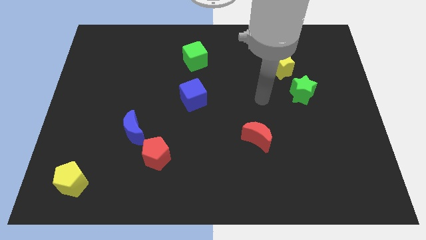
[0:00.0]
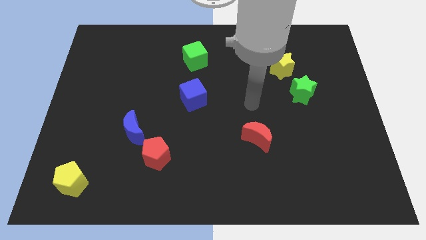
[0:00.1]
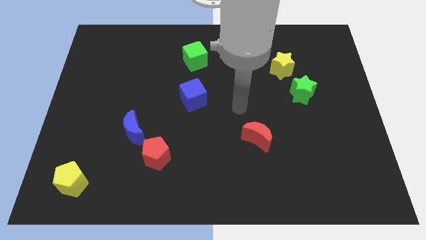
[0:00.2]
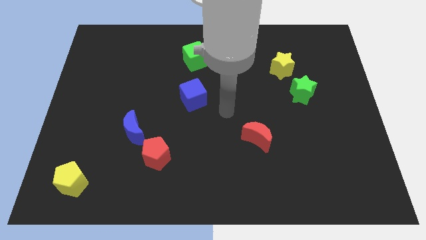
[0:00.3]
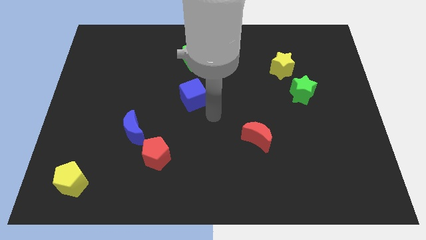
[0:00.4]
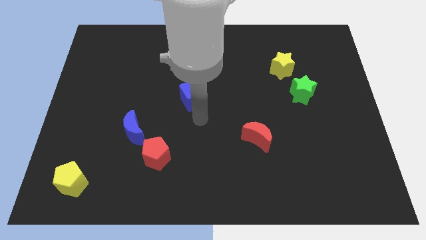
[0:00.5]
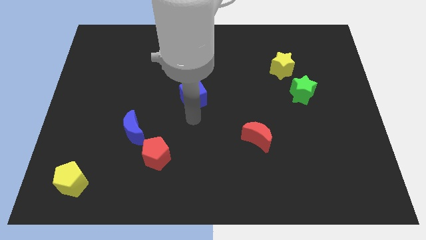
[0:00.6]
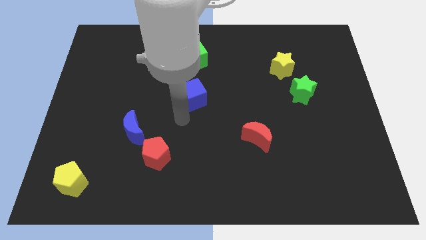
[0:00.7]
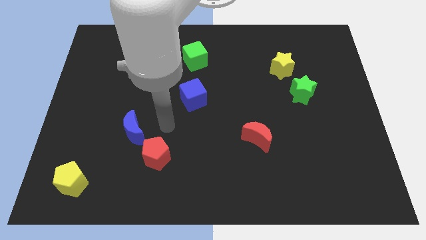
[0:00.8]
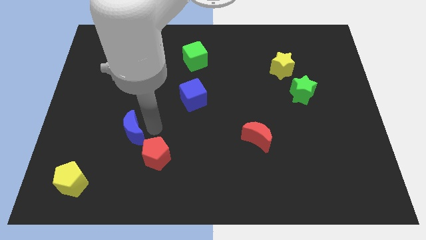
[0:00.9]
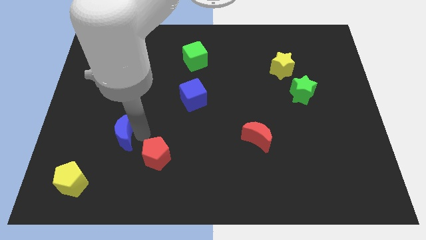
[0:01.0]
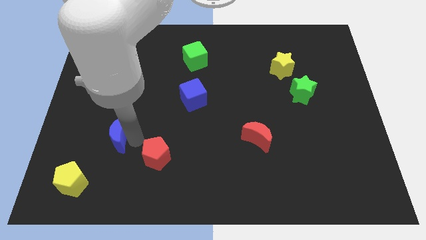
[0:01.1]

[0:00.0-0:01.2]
pull the red pentagon apart from the blue moon

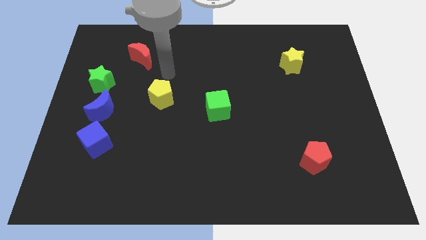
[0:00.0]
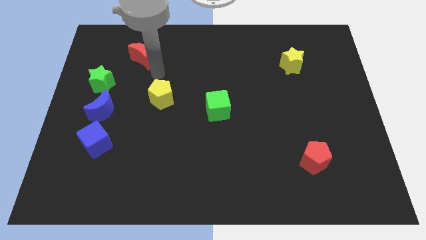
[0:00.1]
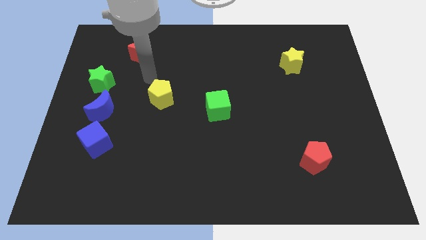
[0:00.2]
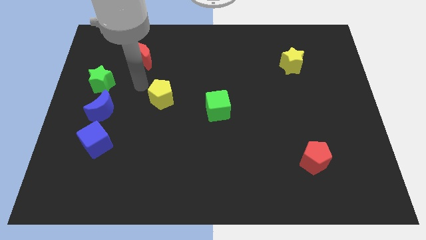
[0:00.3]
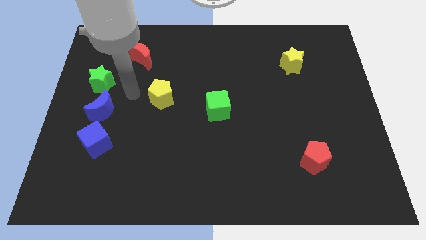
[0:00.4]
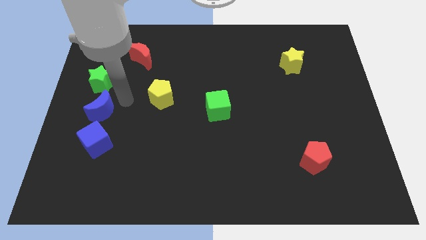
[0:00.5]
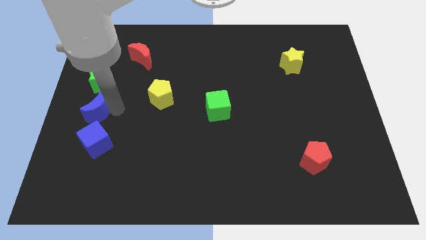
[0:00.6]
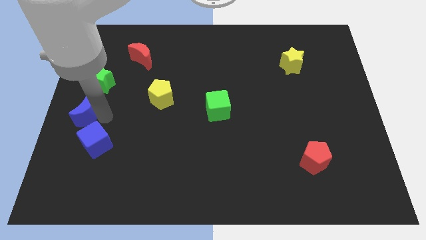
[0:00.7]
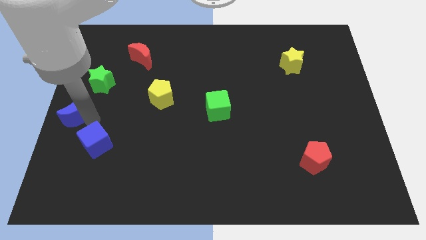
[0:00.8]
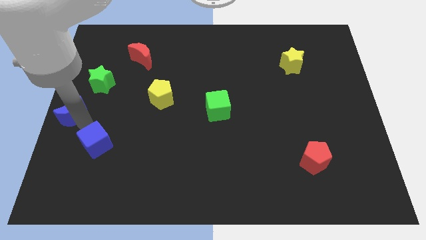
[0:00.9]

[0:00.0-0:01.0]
separate the blue cube from the blue moon

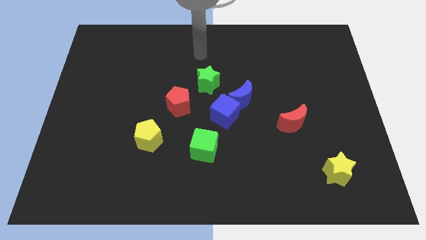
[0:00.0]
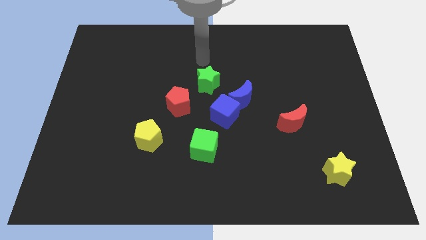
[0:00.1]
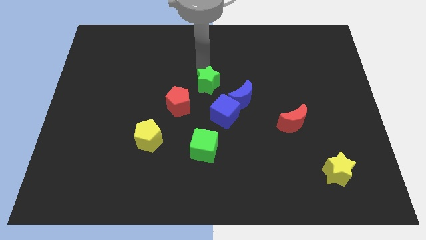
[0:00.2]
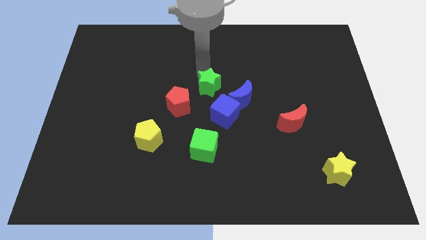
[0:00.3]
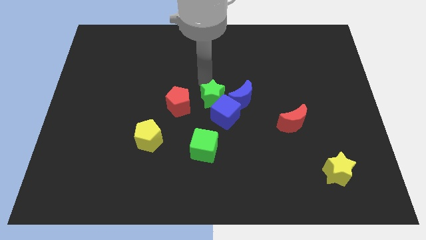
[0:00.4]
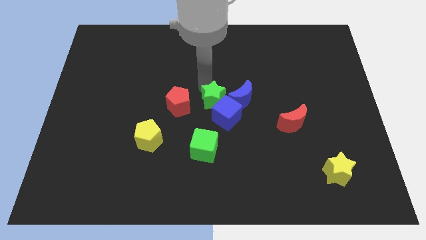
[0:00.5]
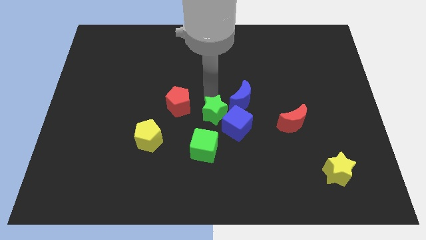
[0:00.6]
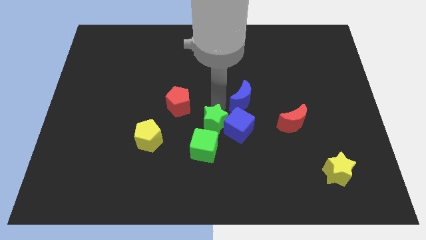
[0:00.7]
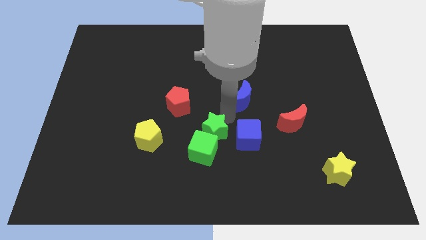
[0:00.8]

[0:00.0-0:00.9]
move the blue moon away from the blue cube and green star

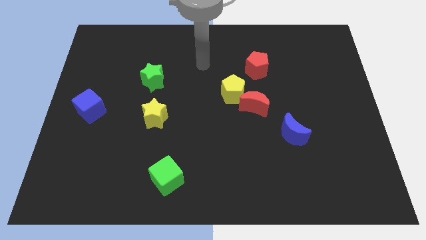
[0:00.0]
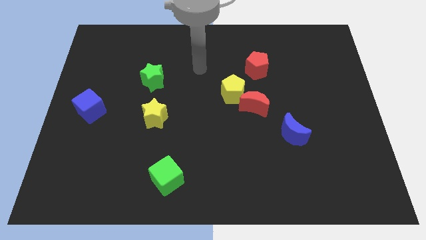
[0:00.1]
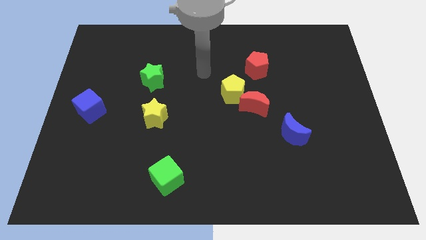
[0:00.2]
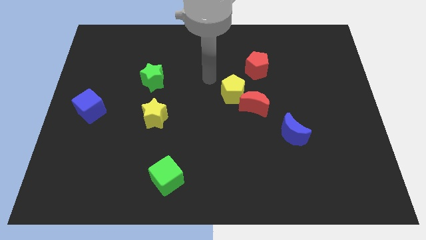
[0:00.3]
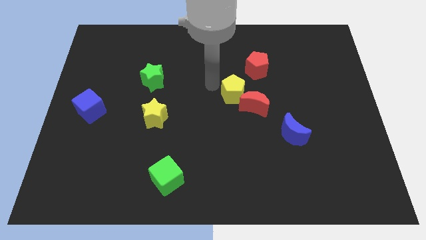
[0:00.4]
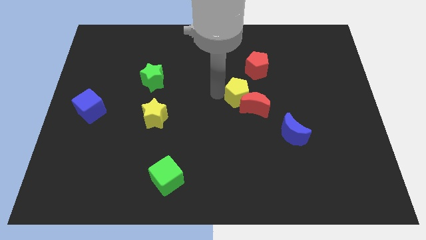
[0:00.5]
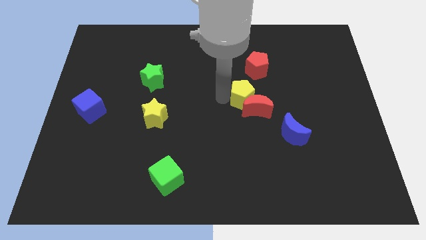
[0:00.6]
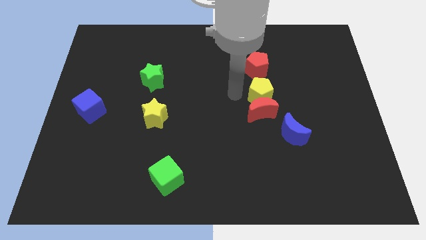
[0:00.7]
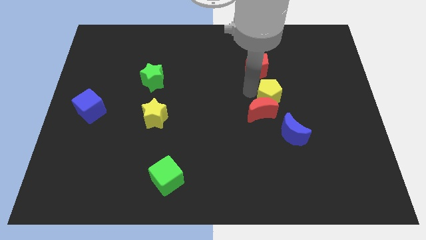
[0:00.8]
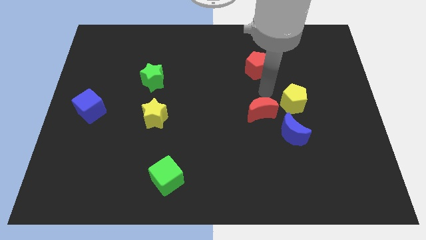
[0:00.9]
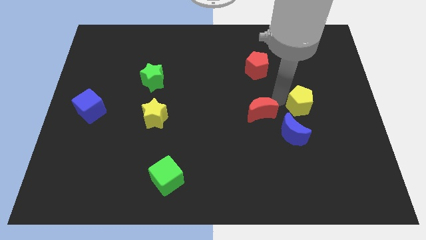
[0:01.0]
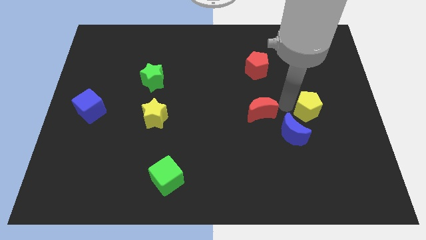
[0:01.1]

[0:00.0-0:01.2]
move the red moon away from the yellow pentagon

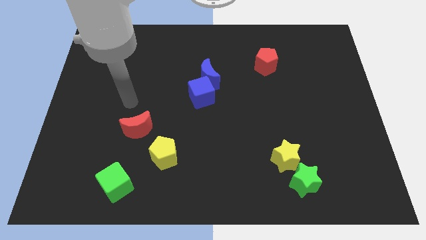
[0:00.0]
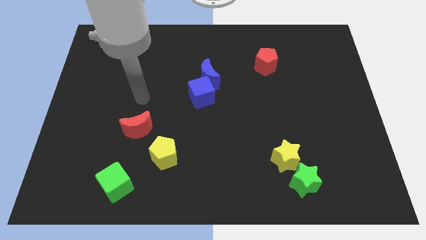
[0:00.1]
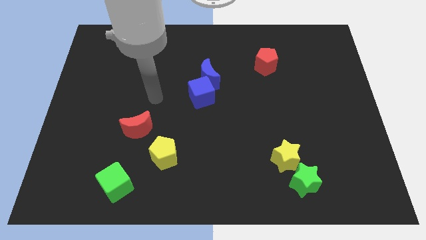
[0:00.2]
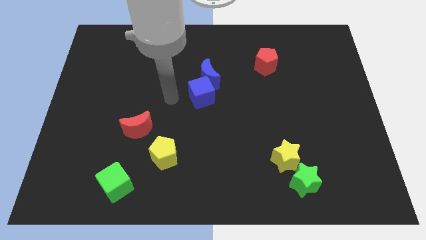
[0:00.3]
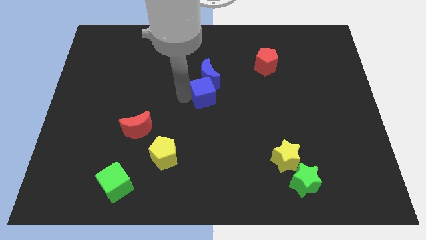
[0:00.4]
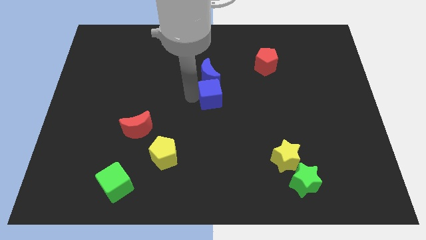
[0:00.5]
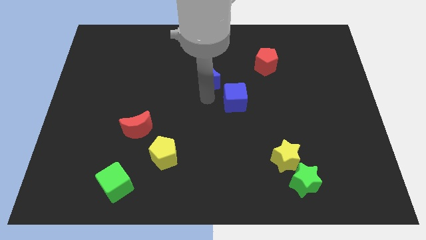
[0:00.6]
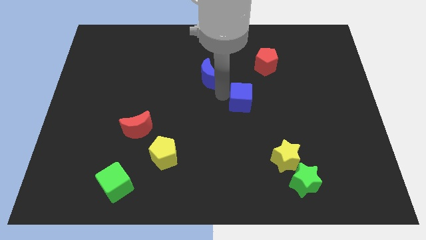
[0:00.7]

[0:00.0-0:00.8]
separate the blue moon from the blue cube

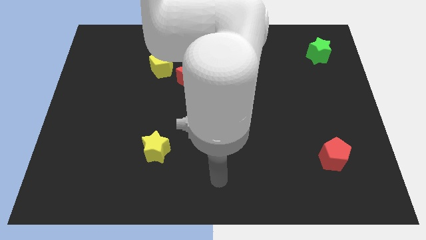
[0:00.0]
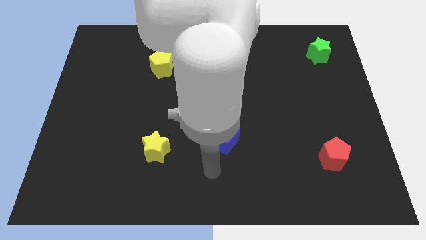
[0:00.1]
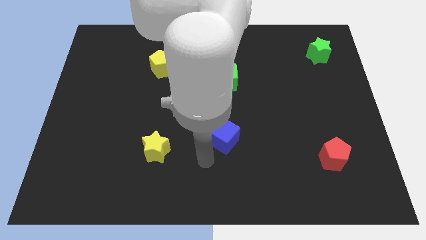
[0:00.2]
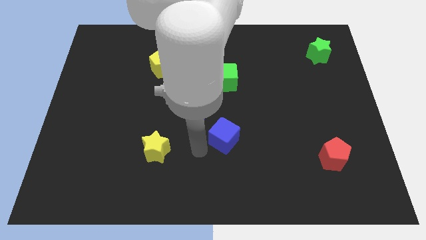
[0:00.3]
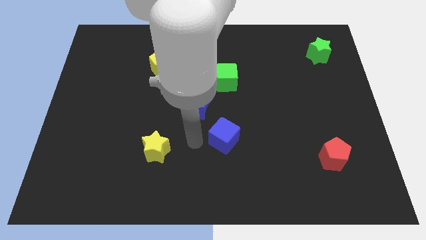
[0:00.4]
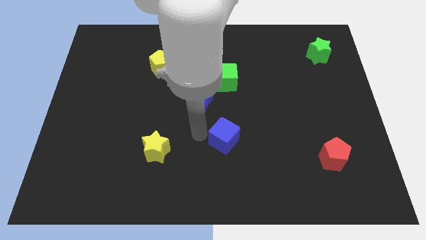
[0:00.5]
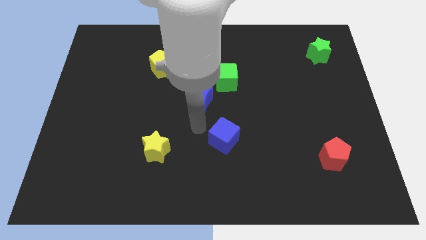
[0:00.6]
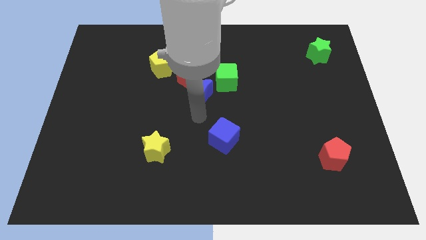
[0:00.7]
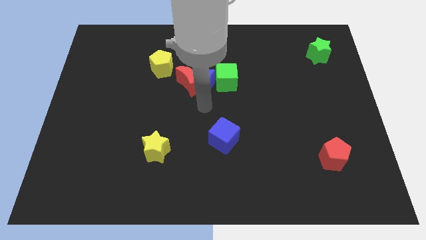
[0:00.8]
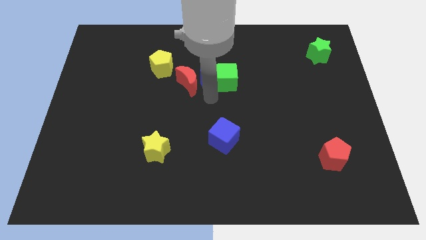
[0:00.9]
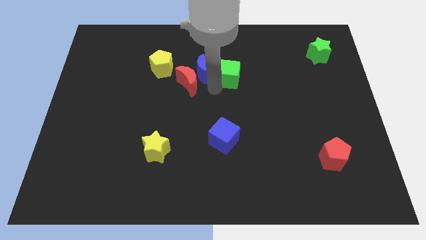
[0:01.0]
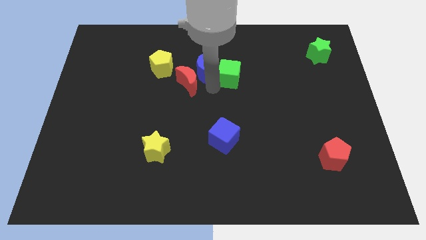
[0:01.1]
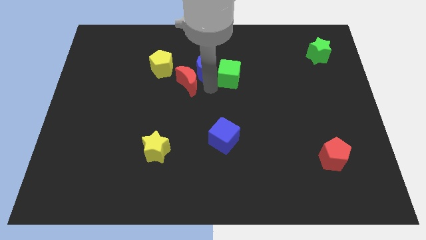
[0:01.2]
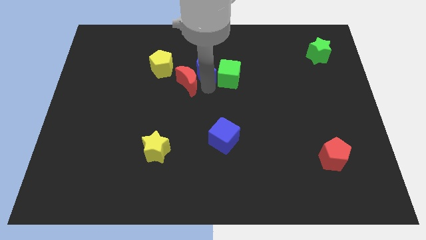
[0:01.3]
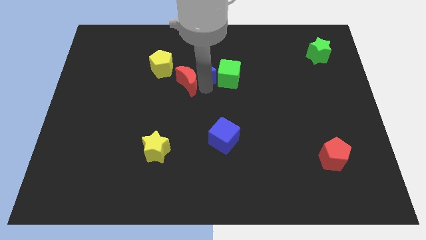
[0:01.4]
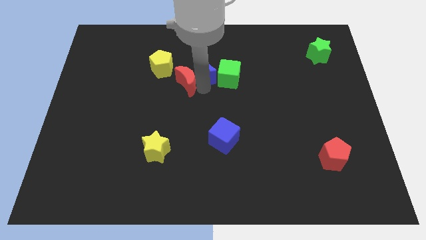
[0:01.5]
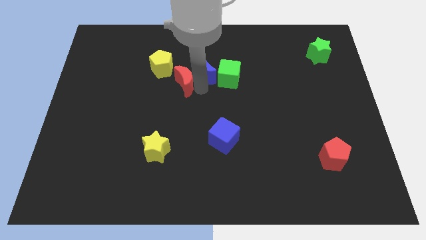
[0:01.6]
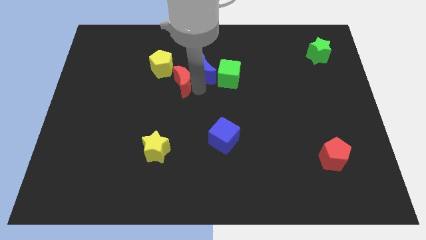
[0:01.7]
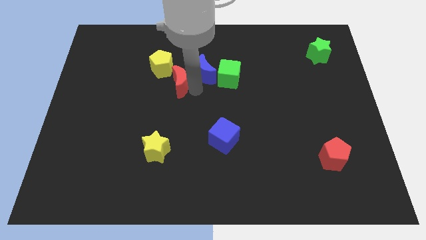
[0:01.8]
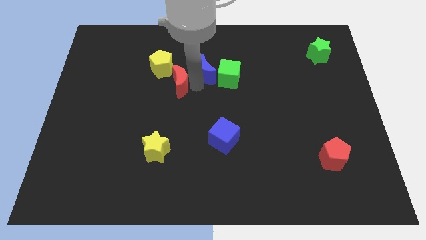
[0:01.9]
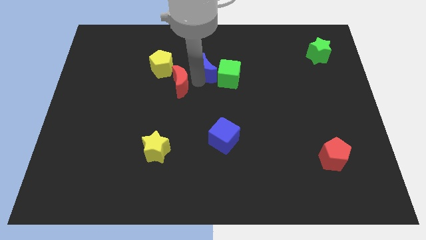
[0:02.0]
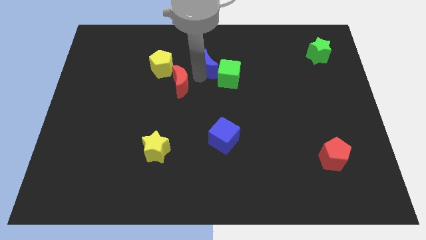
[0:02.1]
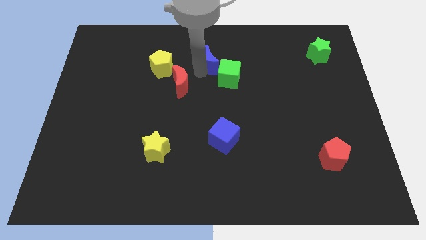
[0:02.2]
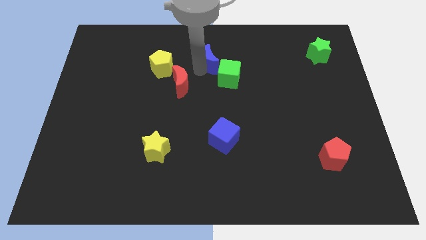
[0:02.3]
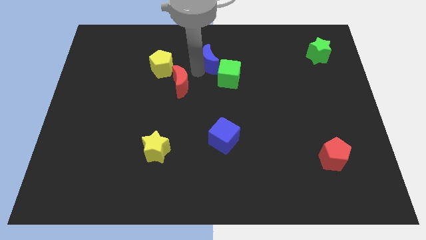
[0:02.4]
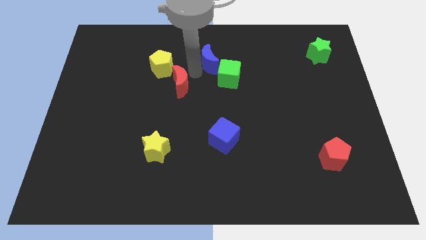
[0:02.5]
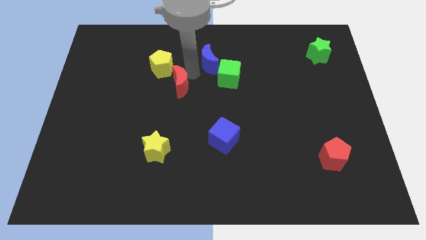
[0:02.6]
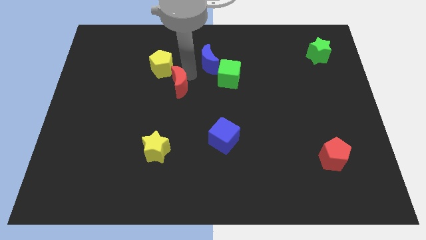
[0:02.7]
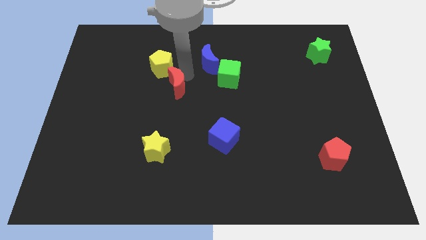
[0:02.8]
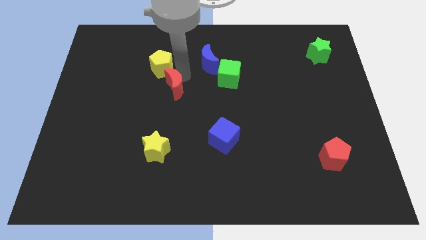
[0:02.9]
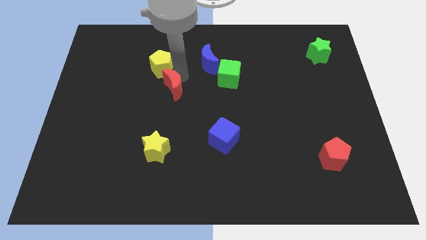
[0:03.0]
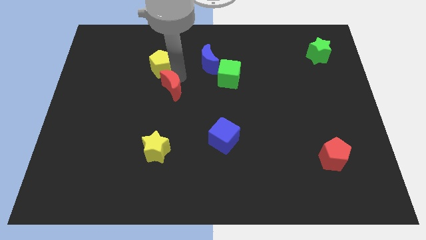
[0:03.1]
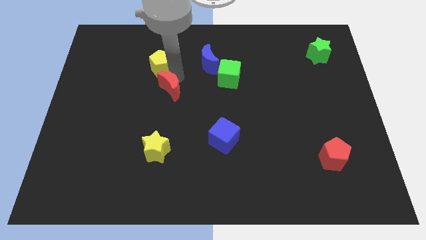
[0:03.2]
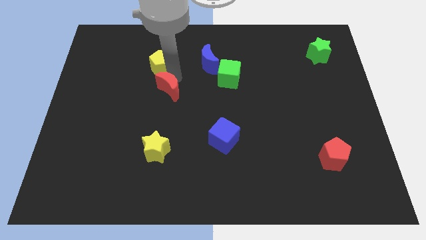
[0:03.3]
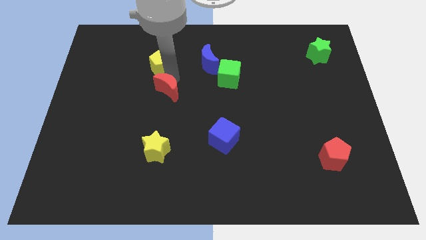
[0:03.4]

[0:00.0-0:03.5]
separate the red moon from the blue moon, yellow pentagon, and green cube

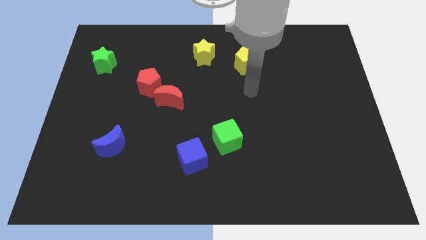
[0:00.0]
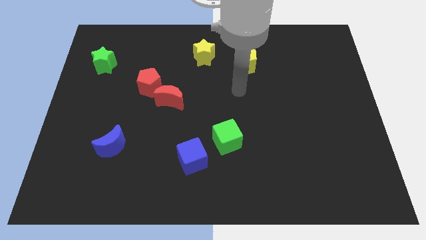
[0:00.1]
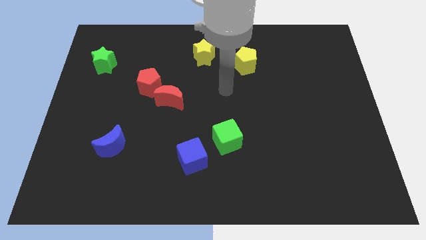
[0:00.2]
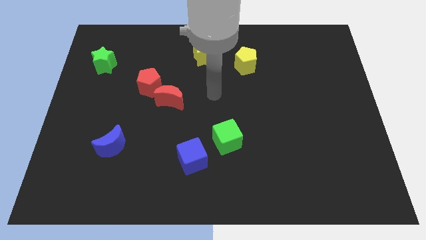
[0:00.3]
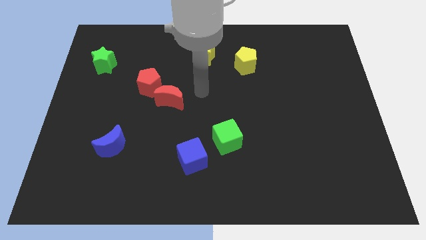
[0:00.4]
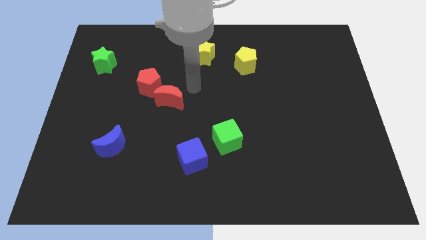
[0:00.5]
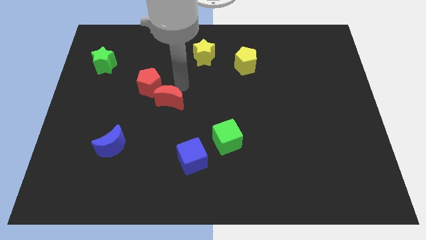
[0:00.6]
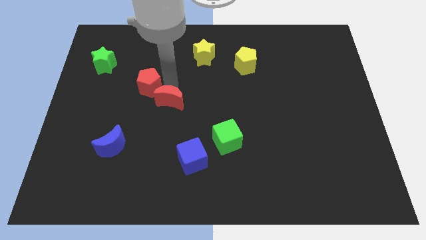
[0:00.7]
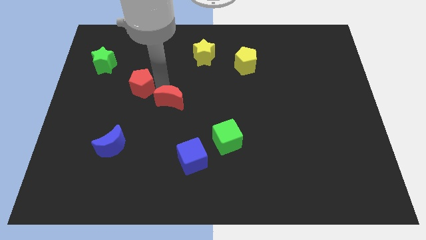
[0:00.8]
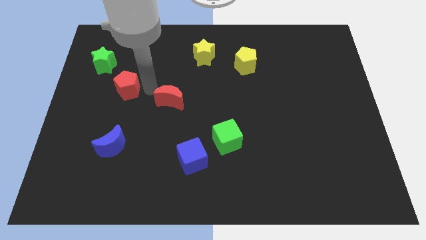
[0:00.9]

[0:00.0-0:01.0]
separate the red moon from the red pentagon
